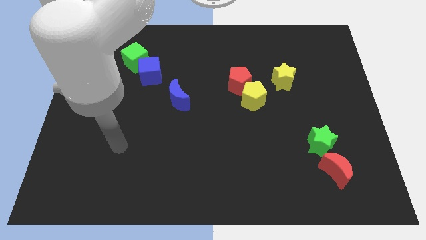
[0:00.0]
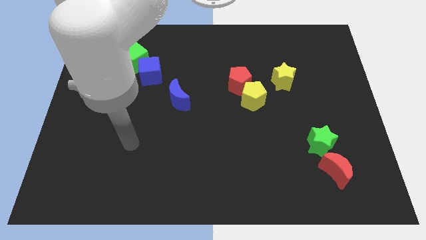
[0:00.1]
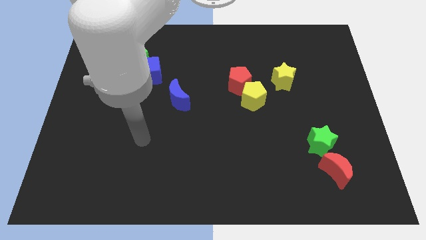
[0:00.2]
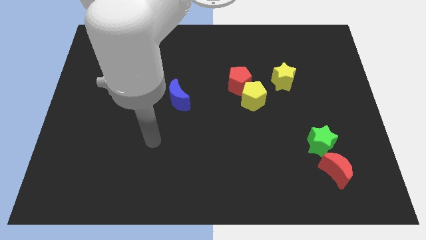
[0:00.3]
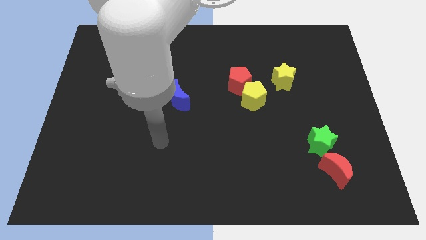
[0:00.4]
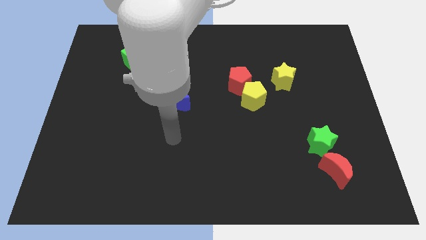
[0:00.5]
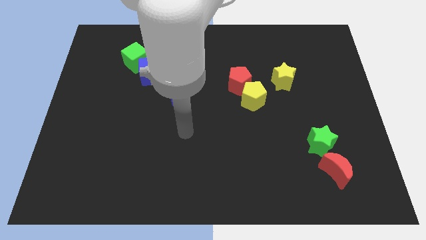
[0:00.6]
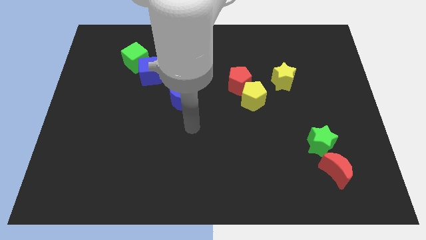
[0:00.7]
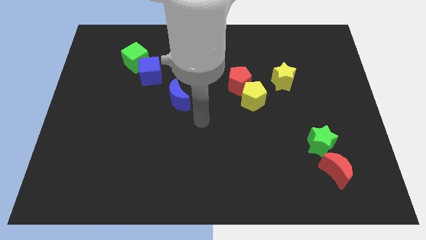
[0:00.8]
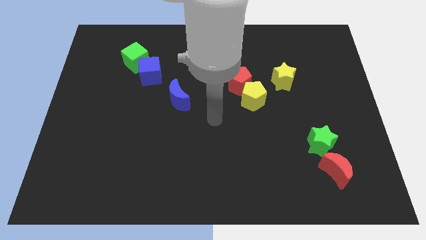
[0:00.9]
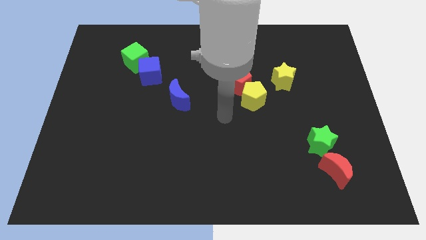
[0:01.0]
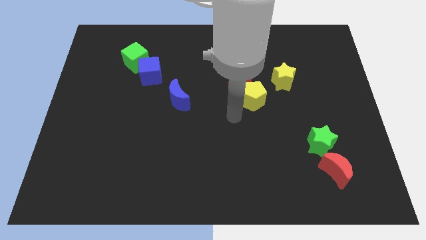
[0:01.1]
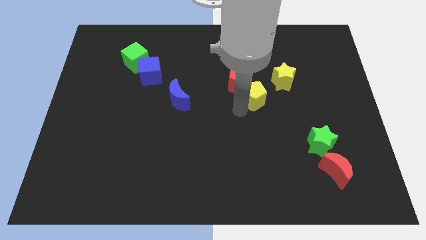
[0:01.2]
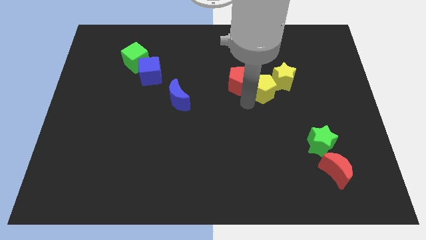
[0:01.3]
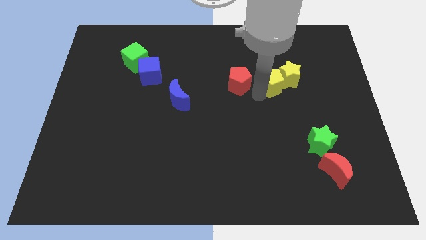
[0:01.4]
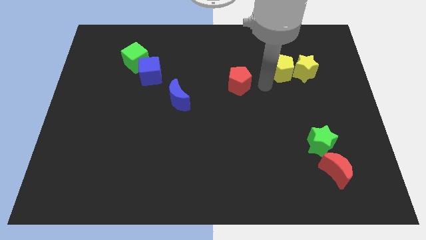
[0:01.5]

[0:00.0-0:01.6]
pull the red pentagon apart from the yellow pentagon

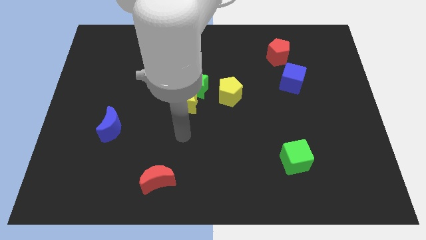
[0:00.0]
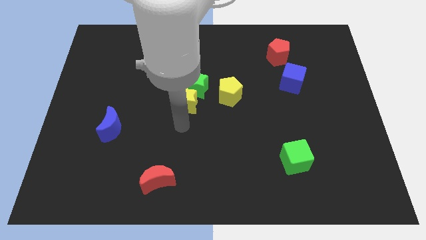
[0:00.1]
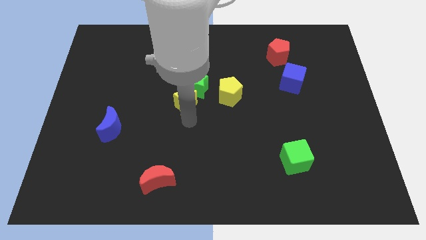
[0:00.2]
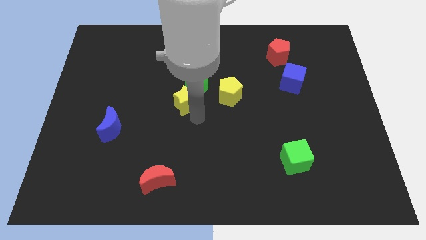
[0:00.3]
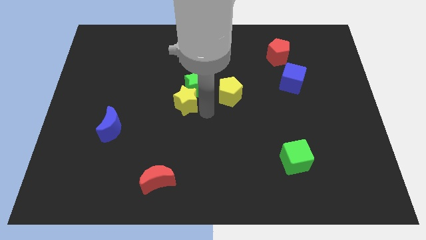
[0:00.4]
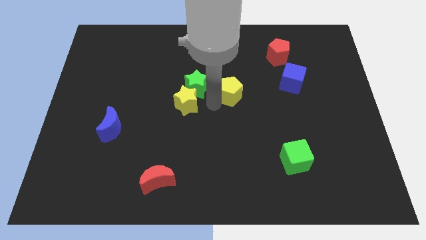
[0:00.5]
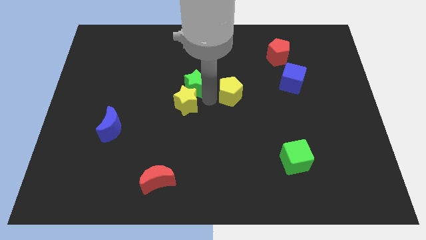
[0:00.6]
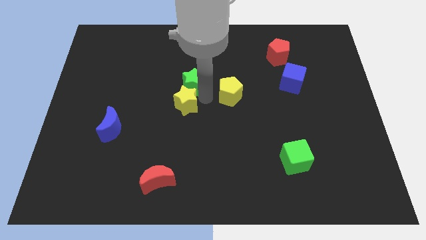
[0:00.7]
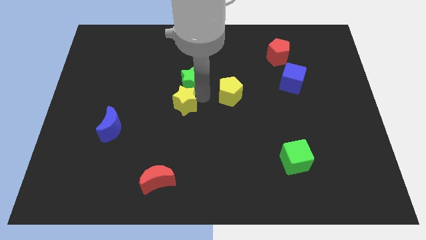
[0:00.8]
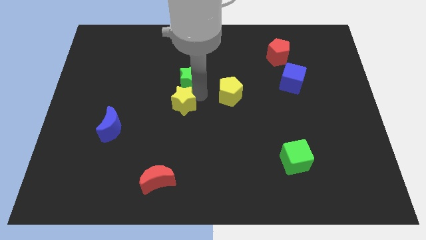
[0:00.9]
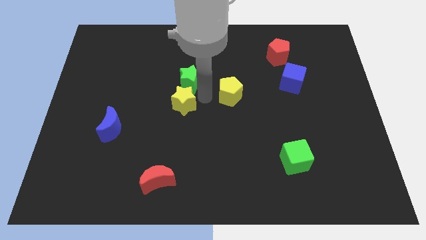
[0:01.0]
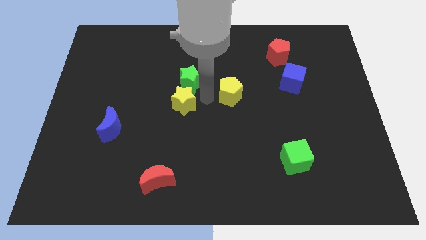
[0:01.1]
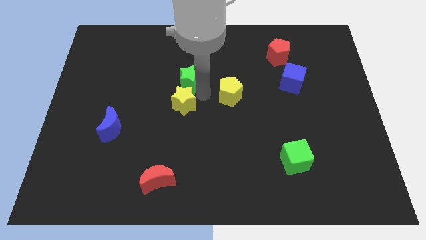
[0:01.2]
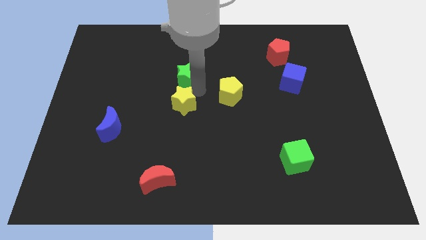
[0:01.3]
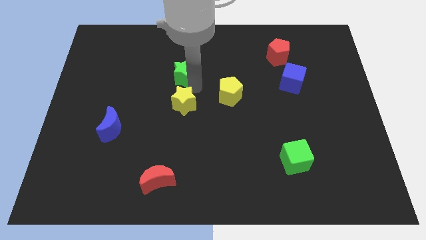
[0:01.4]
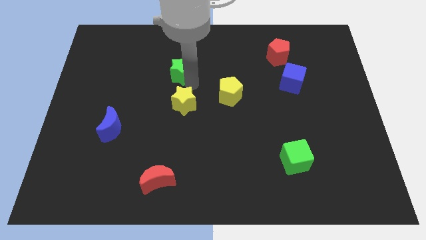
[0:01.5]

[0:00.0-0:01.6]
separate the green star from the yellow star and yellow pentagon

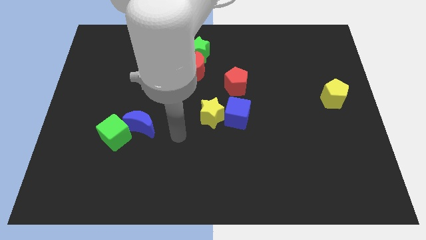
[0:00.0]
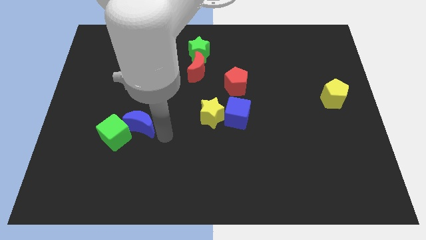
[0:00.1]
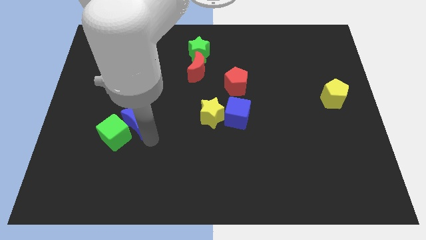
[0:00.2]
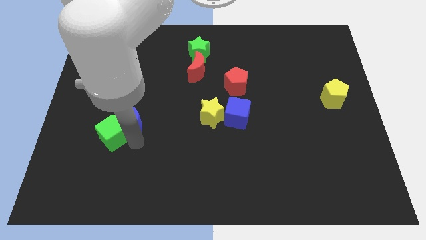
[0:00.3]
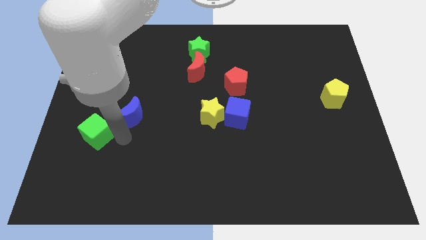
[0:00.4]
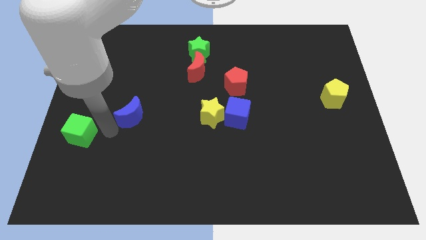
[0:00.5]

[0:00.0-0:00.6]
pull the blue moon apart from the green cube

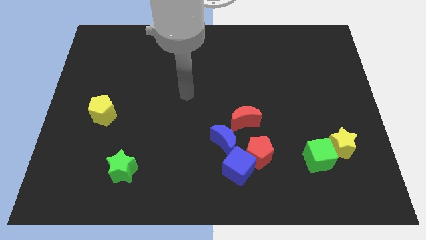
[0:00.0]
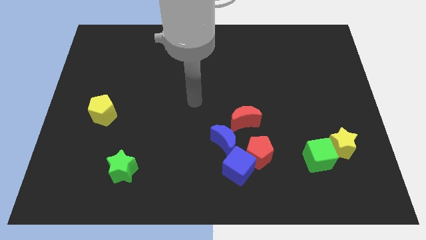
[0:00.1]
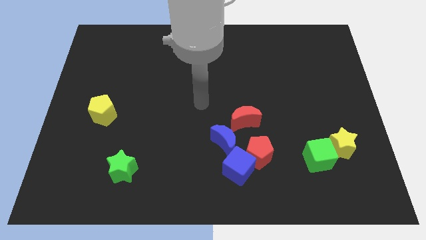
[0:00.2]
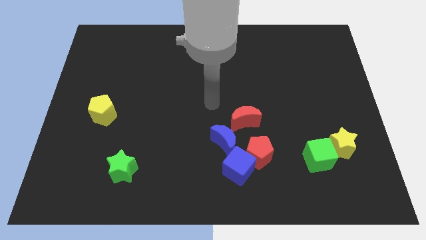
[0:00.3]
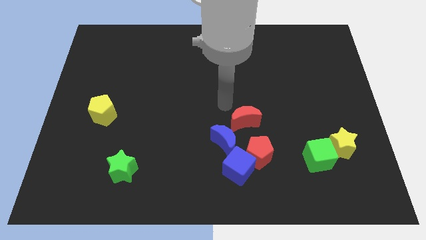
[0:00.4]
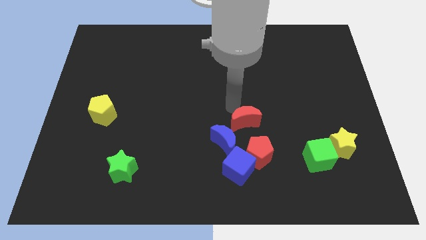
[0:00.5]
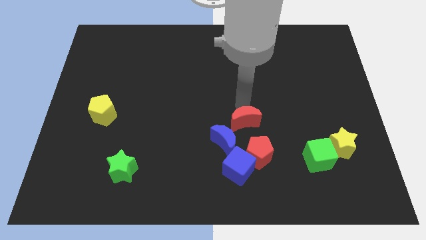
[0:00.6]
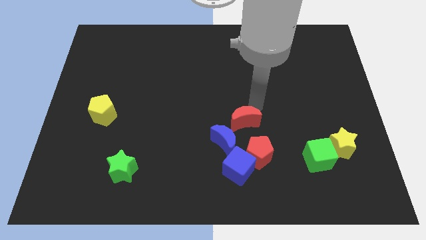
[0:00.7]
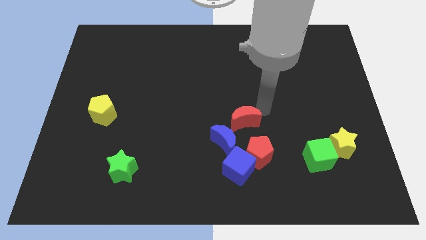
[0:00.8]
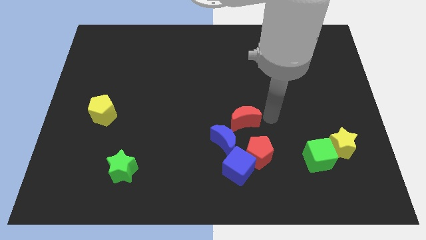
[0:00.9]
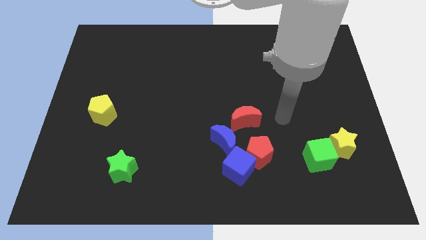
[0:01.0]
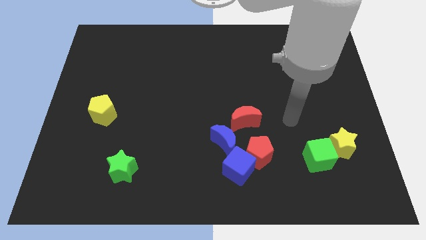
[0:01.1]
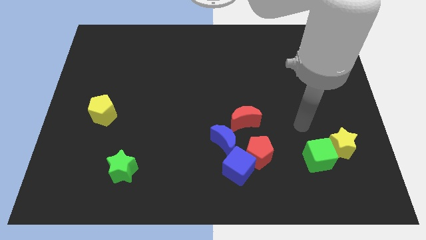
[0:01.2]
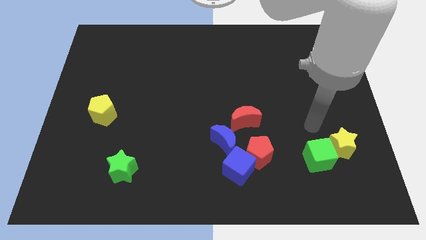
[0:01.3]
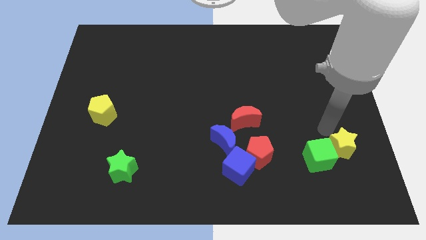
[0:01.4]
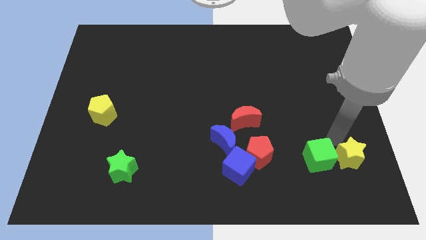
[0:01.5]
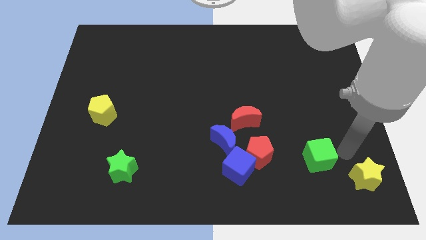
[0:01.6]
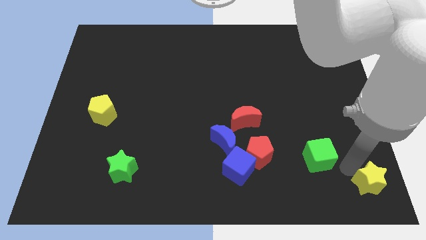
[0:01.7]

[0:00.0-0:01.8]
pull the green cube apart from the yellow star

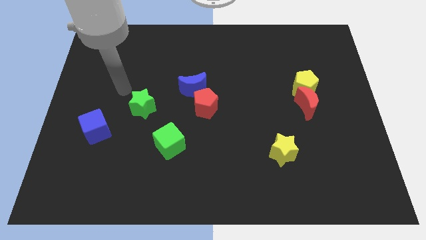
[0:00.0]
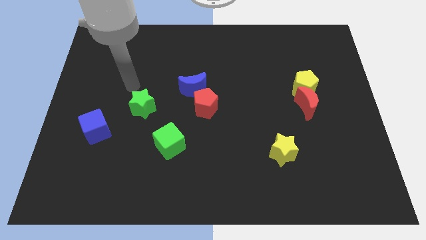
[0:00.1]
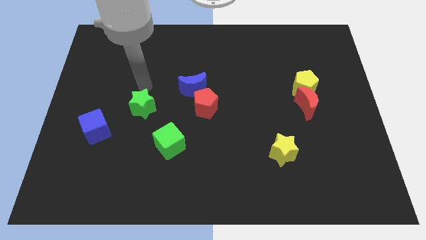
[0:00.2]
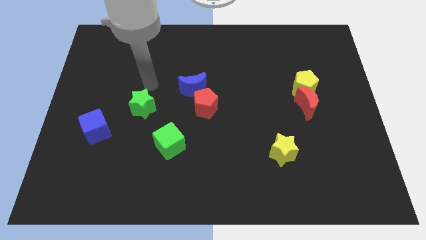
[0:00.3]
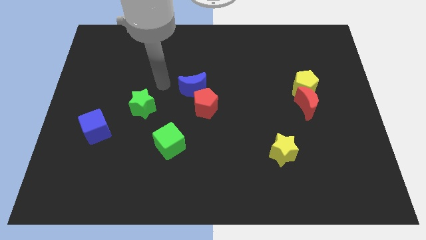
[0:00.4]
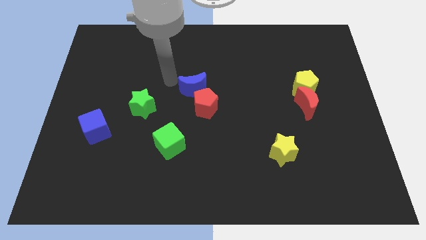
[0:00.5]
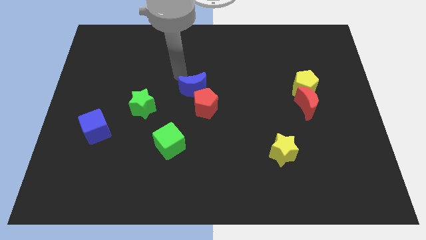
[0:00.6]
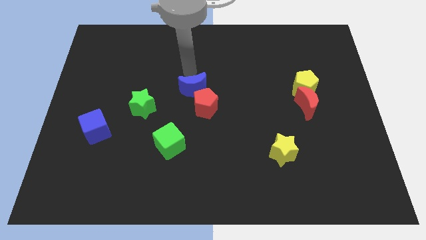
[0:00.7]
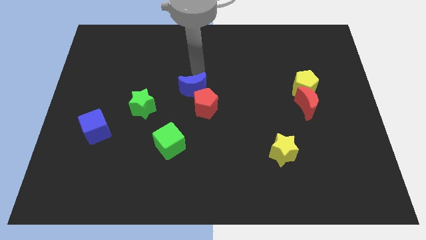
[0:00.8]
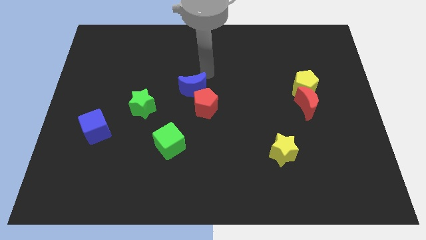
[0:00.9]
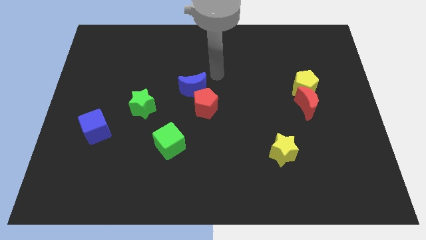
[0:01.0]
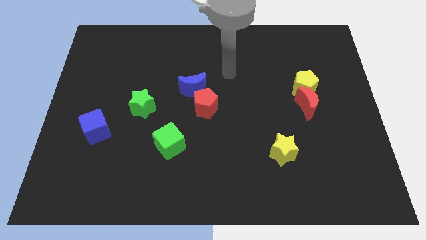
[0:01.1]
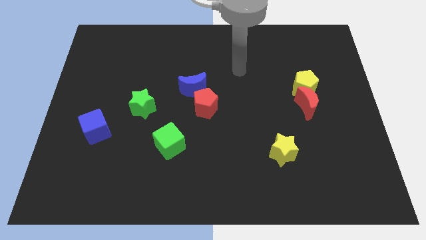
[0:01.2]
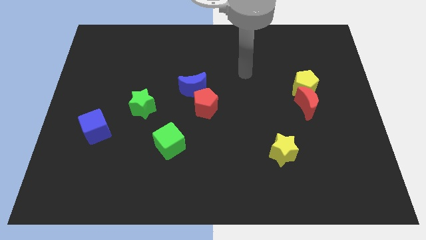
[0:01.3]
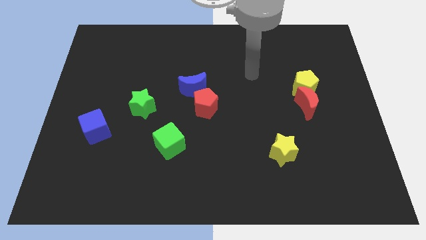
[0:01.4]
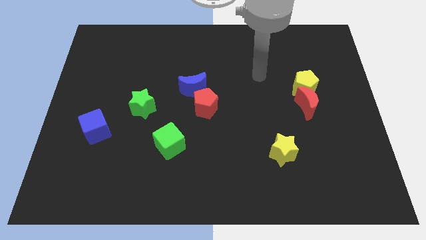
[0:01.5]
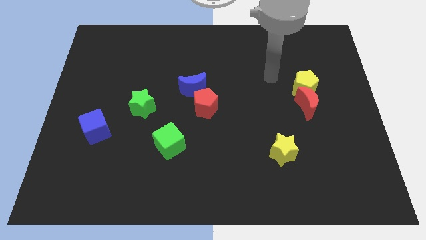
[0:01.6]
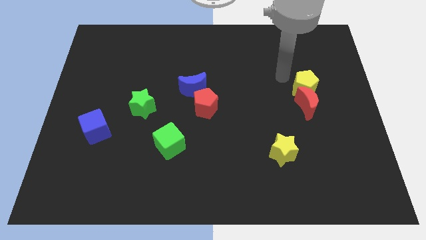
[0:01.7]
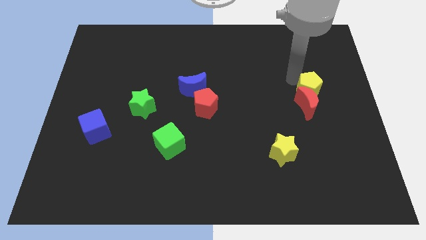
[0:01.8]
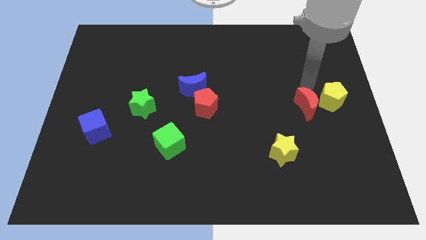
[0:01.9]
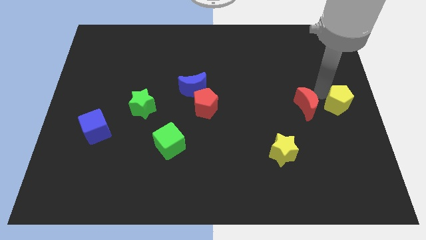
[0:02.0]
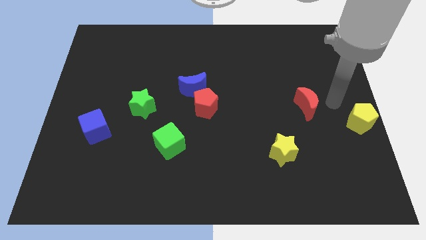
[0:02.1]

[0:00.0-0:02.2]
pull the red moon apart from the yellow pentagon

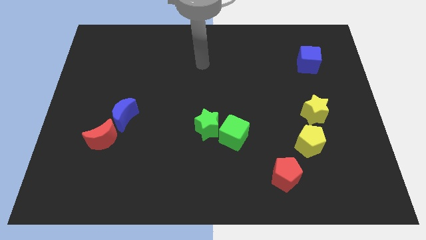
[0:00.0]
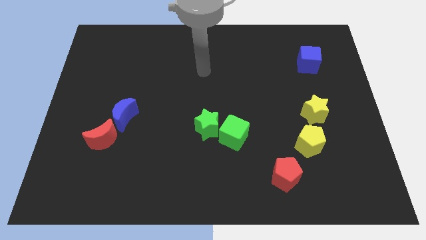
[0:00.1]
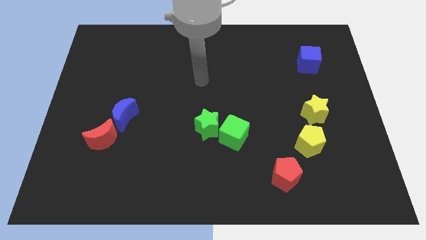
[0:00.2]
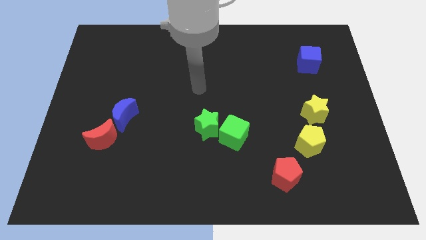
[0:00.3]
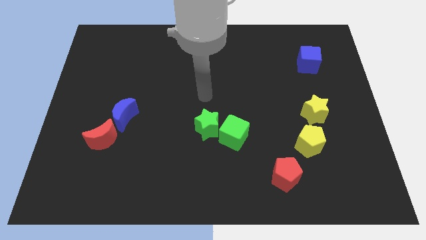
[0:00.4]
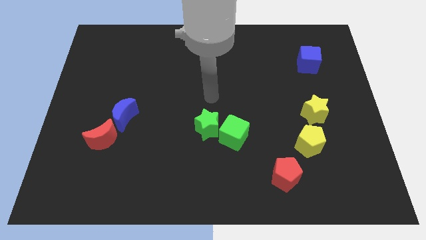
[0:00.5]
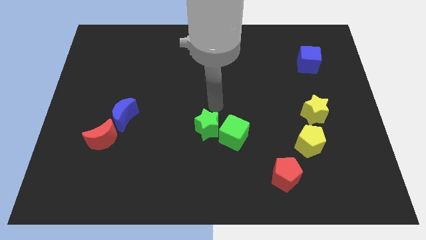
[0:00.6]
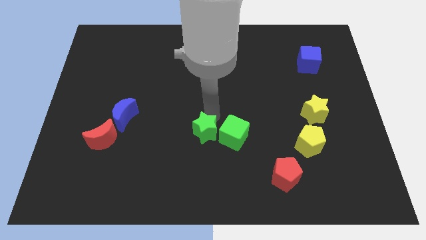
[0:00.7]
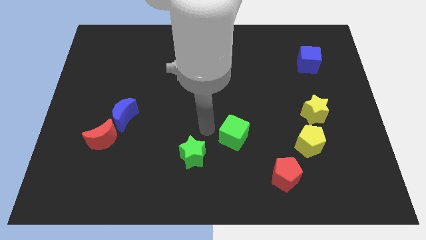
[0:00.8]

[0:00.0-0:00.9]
move the green cube away from the green star

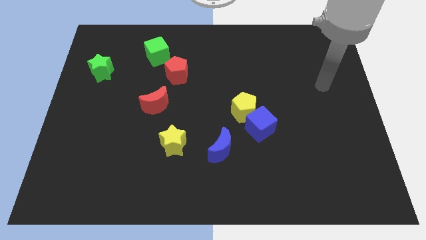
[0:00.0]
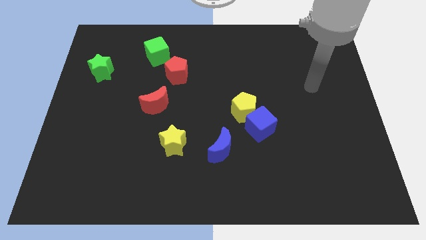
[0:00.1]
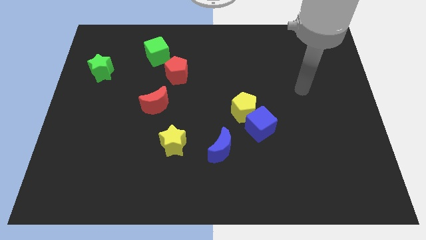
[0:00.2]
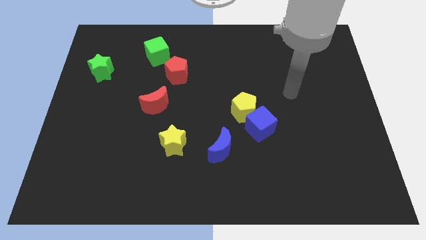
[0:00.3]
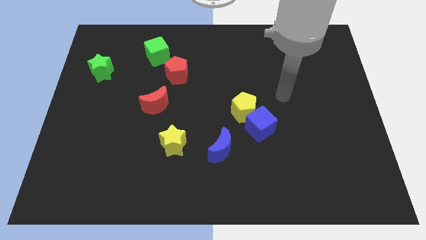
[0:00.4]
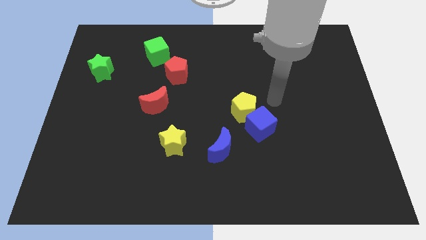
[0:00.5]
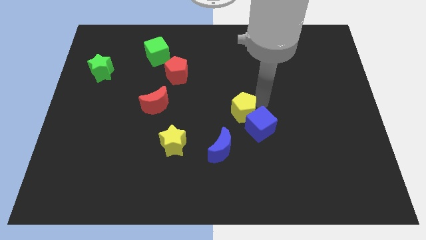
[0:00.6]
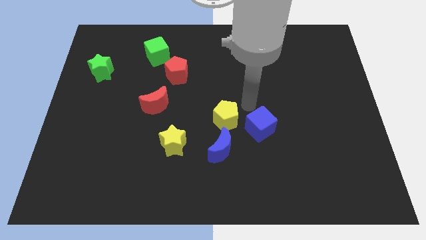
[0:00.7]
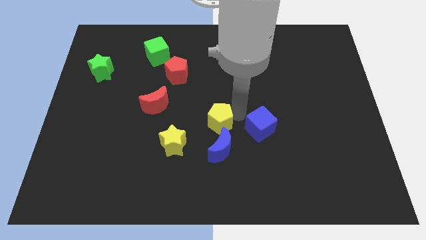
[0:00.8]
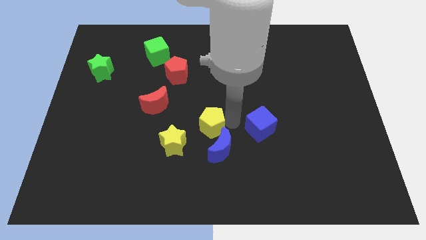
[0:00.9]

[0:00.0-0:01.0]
move the blue cube away from the yellow pentagon
